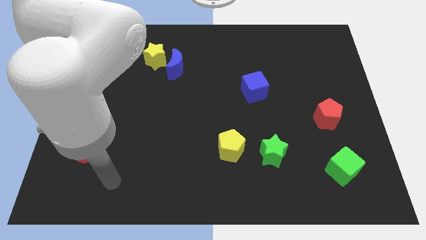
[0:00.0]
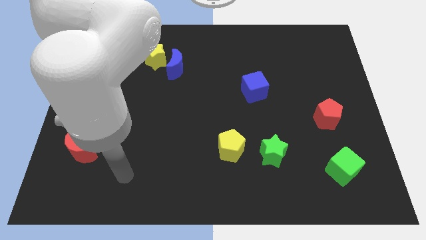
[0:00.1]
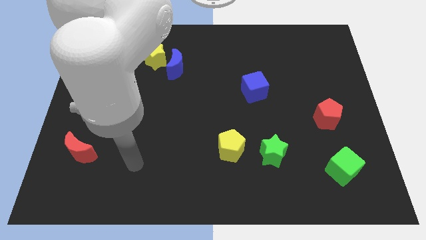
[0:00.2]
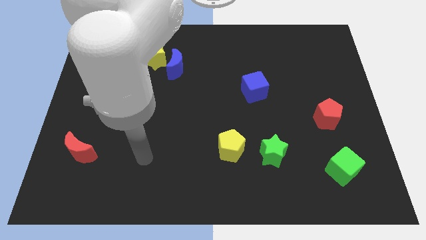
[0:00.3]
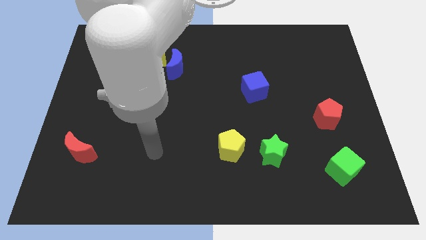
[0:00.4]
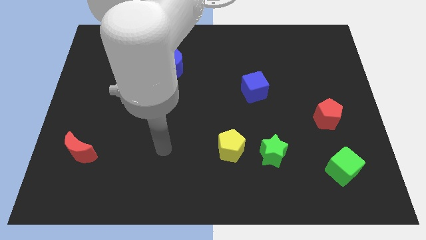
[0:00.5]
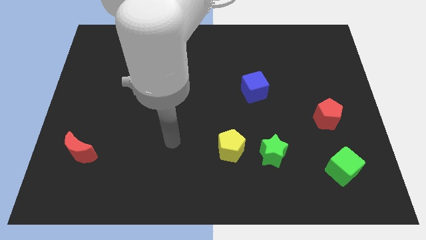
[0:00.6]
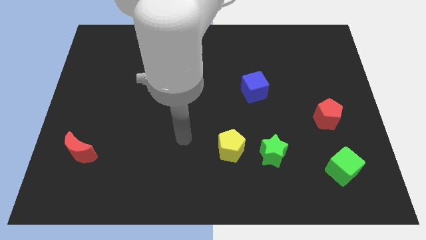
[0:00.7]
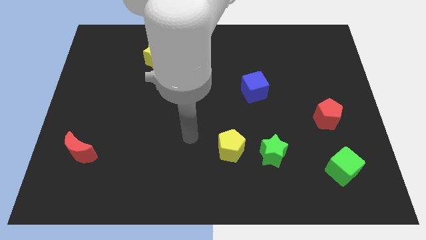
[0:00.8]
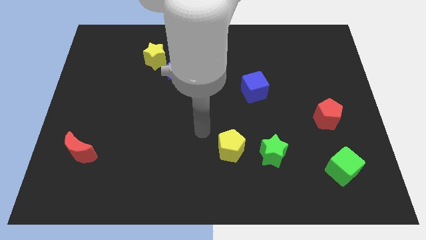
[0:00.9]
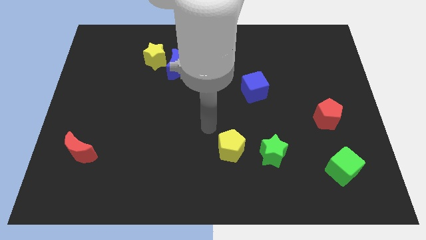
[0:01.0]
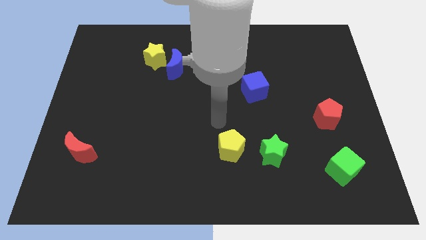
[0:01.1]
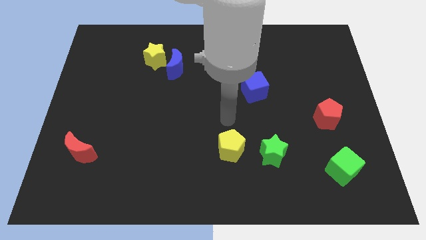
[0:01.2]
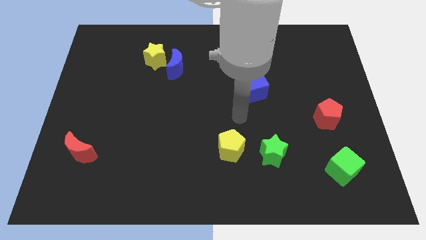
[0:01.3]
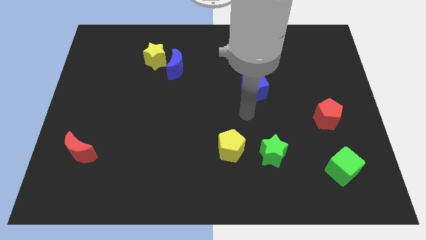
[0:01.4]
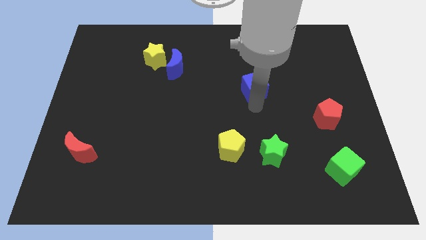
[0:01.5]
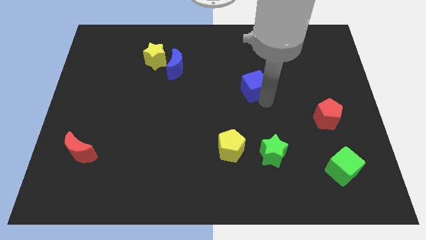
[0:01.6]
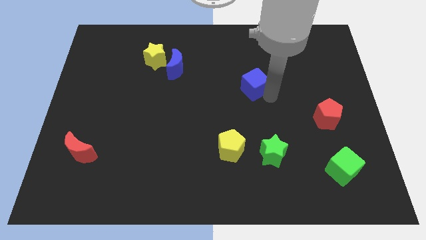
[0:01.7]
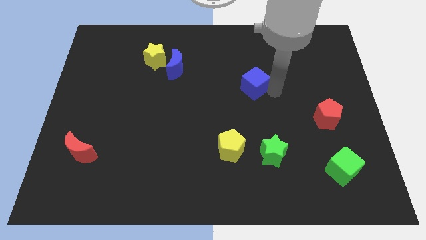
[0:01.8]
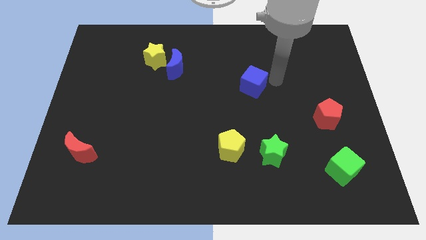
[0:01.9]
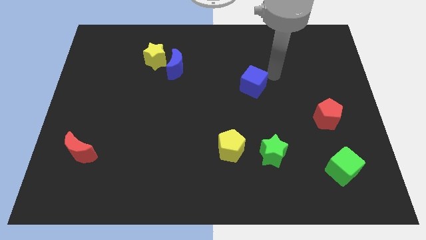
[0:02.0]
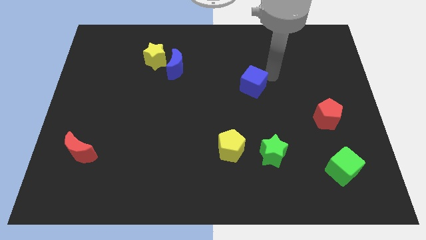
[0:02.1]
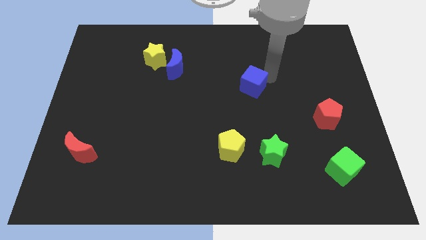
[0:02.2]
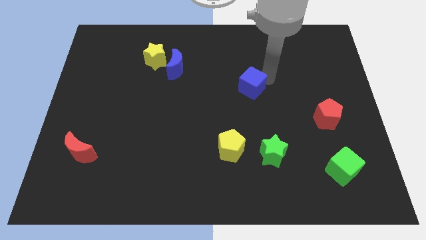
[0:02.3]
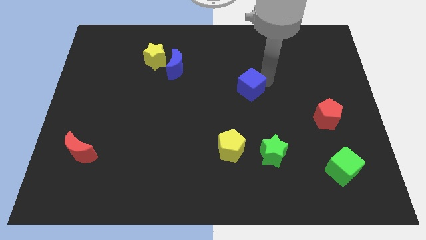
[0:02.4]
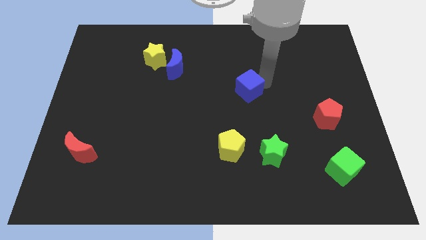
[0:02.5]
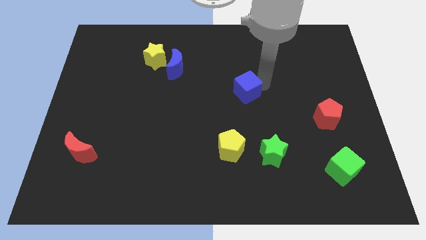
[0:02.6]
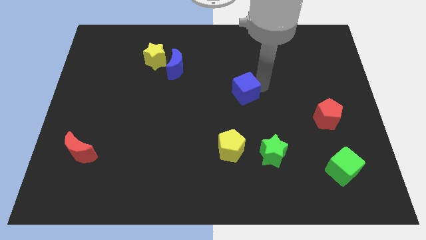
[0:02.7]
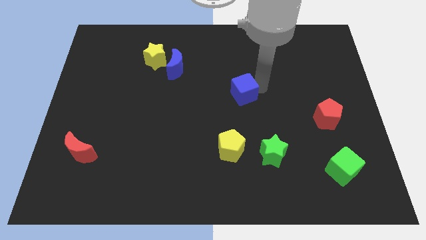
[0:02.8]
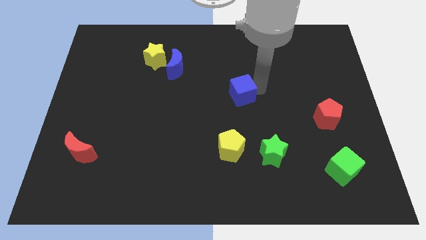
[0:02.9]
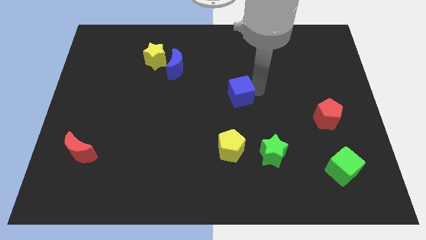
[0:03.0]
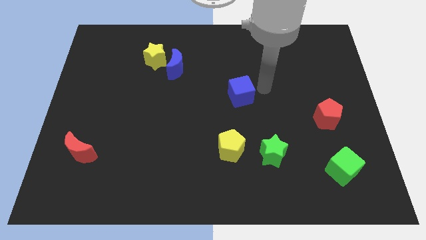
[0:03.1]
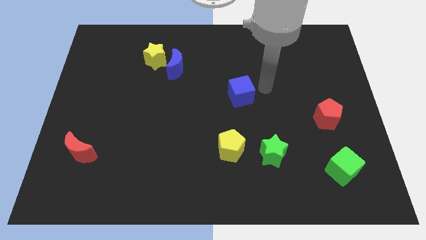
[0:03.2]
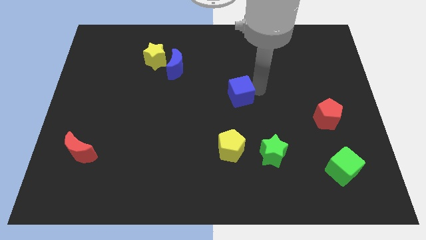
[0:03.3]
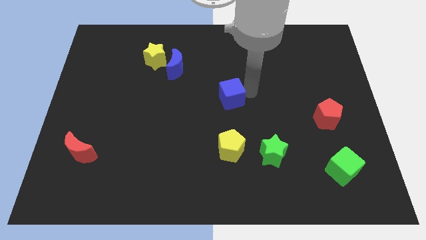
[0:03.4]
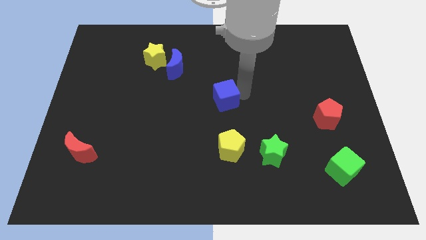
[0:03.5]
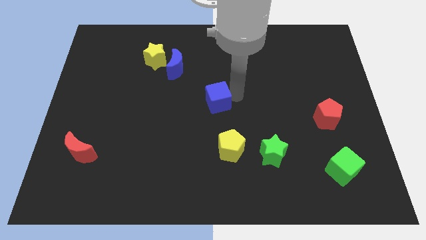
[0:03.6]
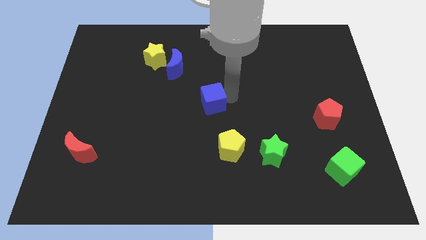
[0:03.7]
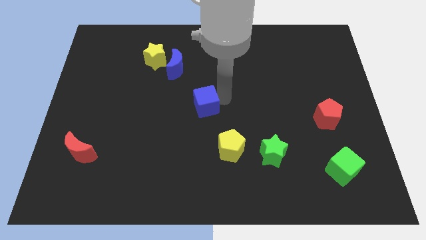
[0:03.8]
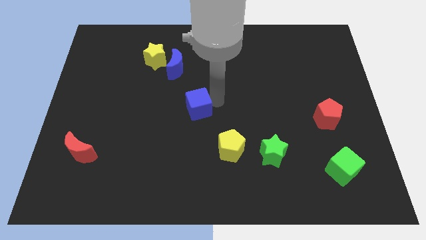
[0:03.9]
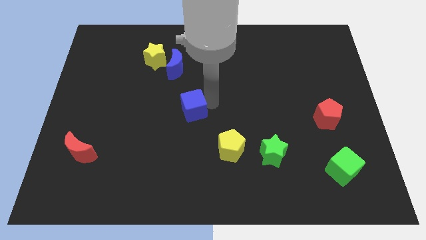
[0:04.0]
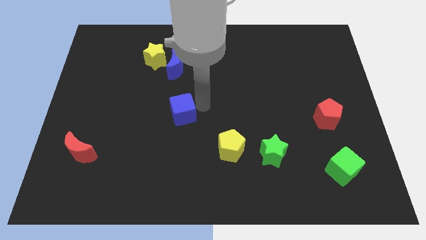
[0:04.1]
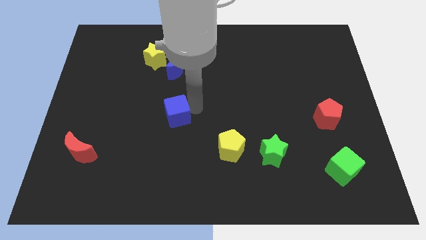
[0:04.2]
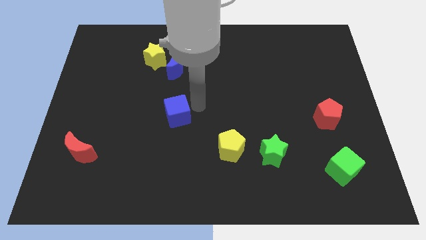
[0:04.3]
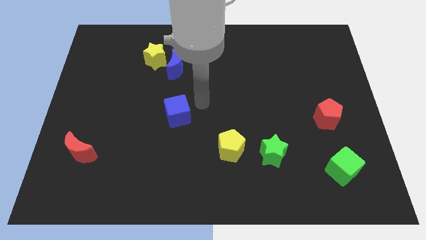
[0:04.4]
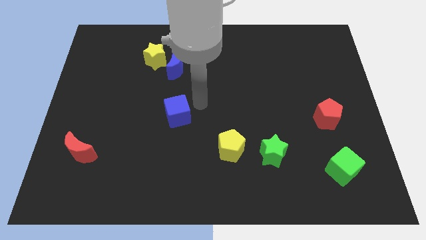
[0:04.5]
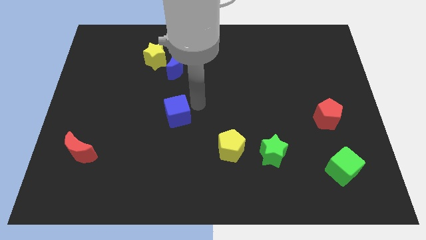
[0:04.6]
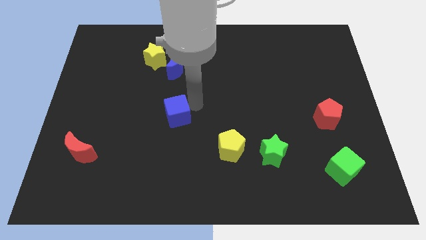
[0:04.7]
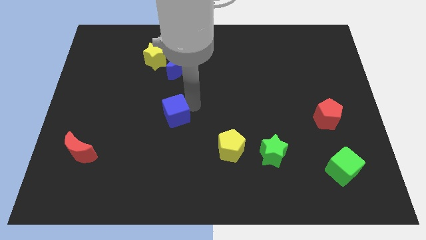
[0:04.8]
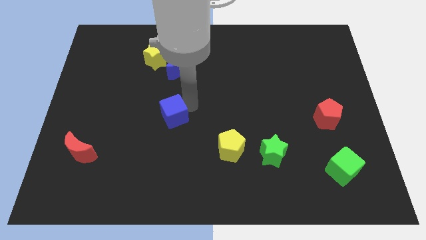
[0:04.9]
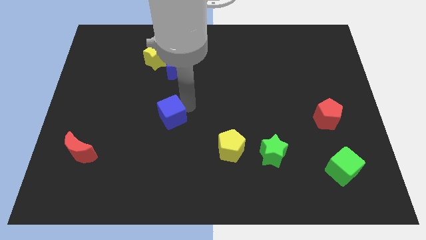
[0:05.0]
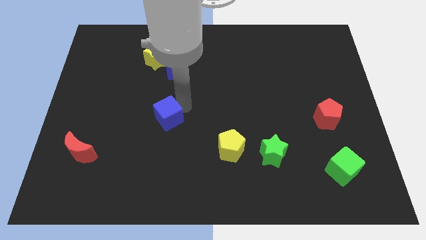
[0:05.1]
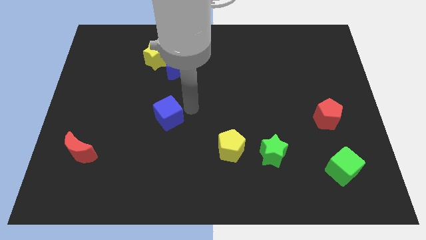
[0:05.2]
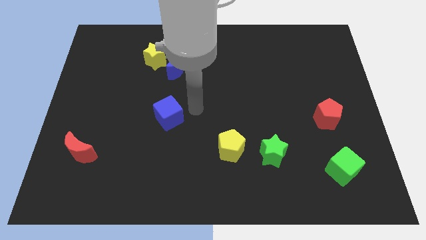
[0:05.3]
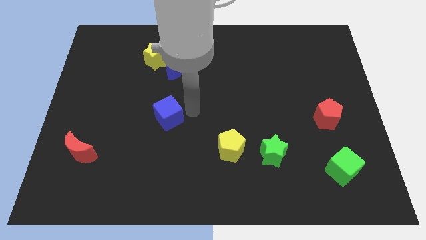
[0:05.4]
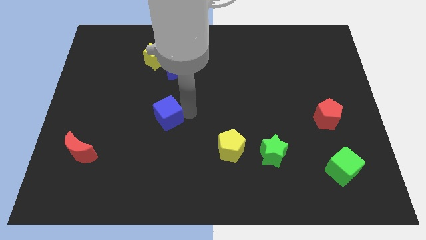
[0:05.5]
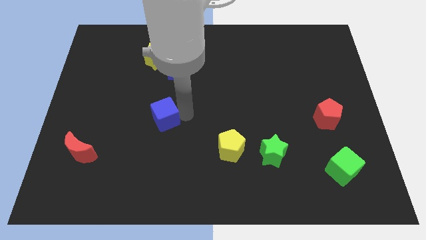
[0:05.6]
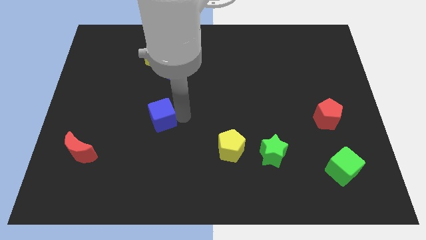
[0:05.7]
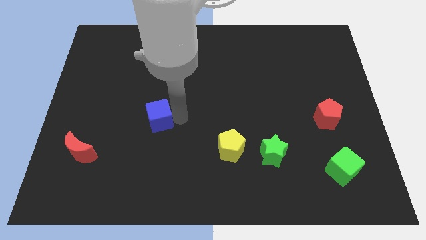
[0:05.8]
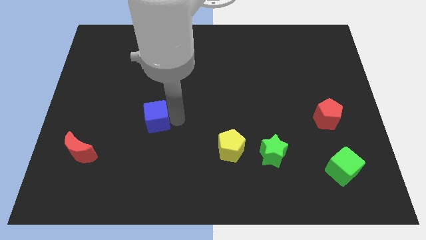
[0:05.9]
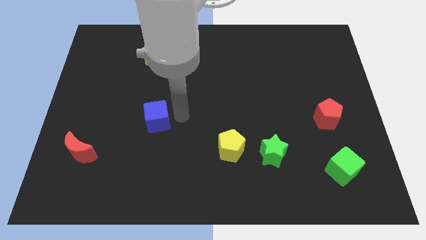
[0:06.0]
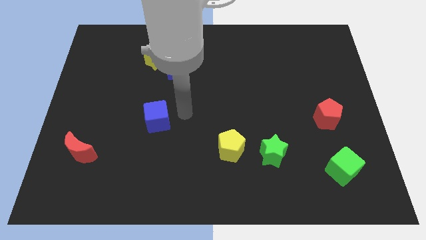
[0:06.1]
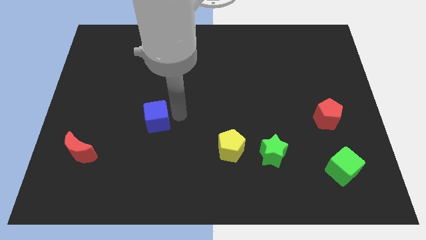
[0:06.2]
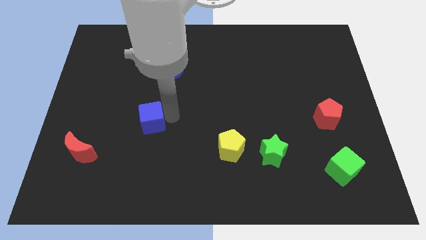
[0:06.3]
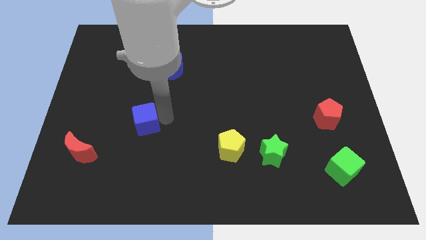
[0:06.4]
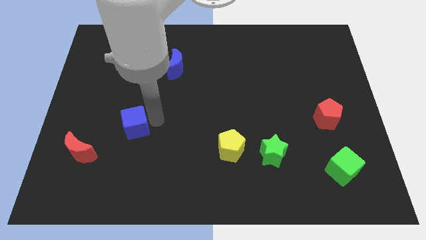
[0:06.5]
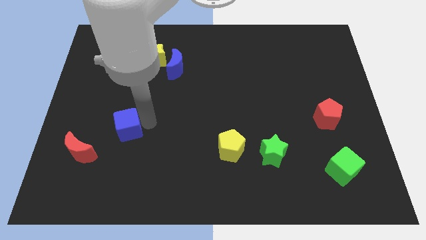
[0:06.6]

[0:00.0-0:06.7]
put the blue cube diagonally up and to the right of the red moon
